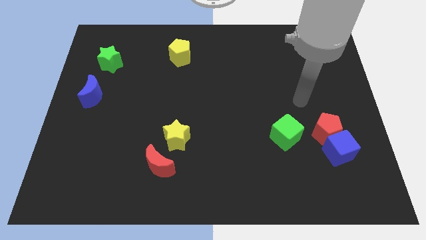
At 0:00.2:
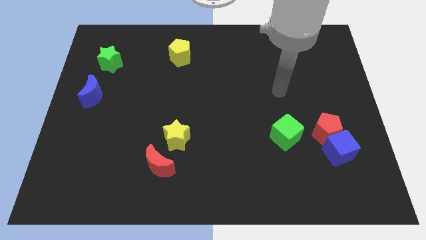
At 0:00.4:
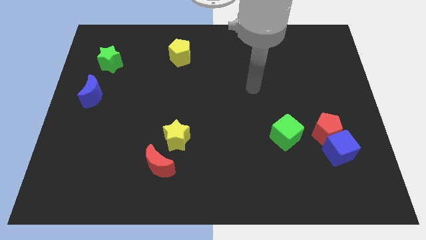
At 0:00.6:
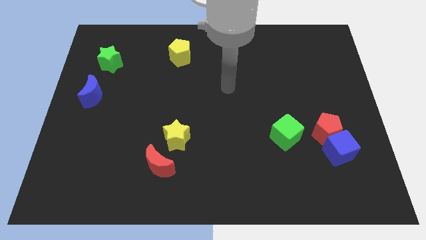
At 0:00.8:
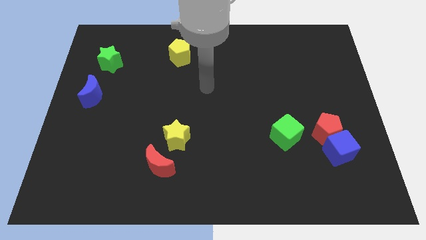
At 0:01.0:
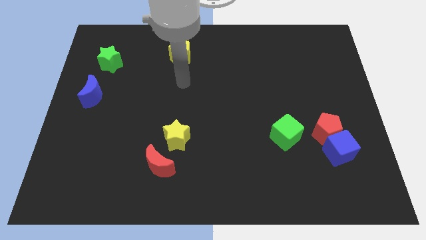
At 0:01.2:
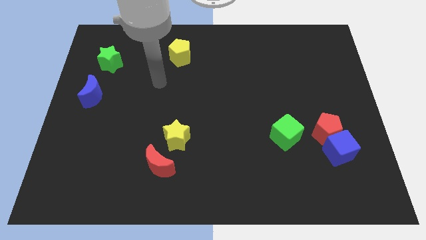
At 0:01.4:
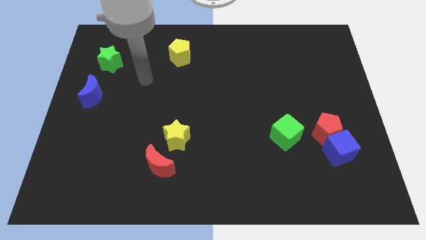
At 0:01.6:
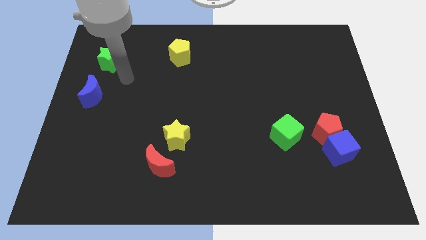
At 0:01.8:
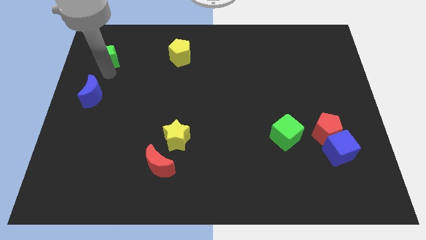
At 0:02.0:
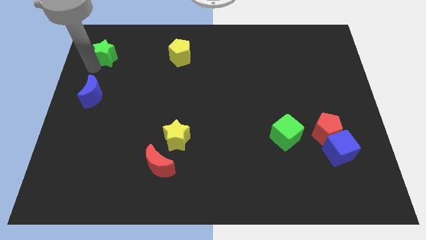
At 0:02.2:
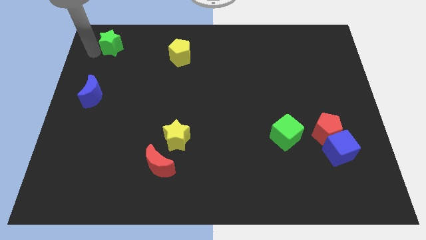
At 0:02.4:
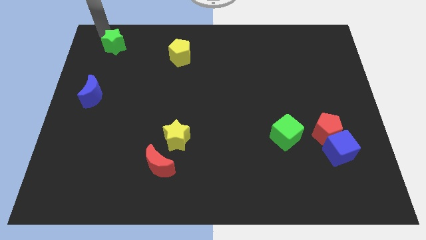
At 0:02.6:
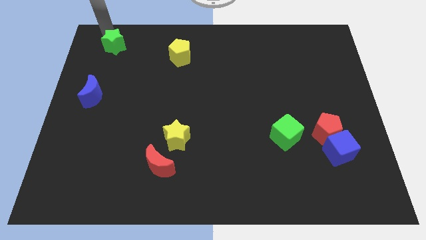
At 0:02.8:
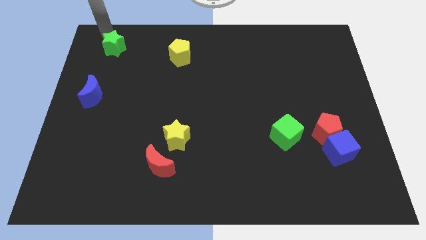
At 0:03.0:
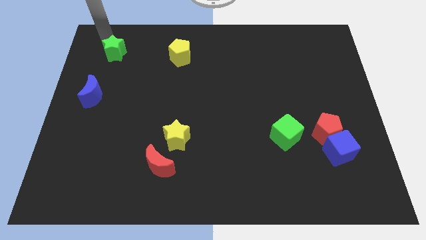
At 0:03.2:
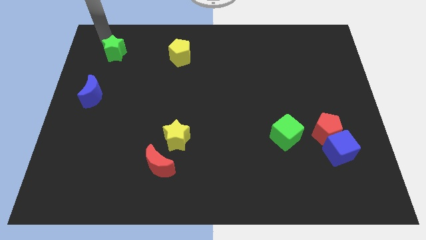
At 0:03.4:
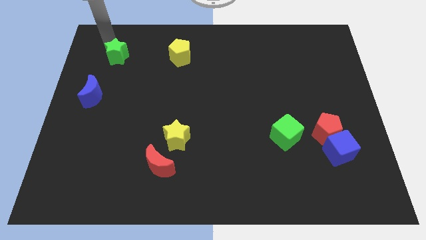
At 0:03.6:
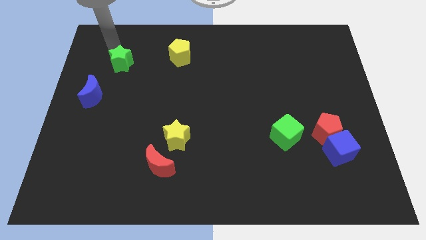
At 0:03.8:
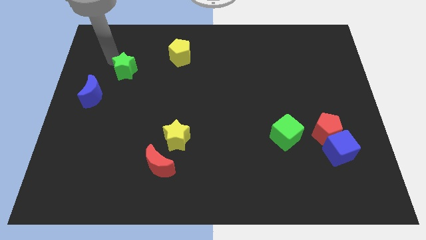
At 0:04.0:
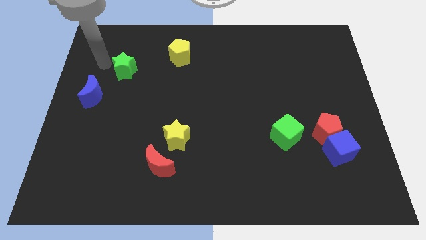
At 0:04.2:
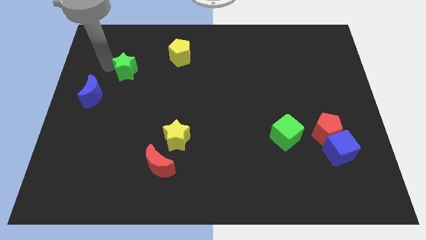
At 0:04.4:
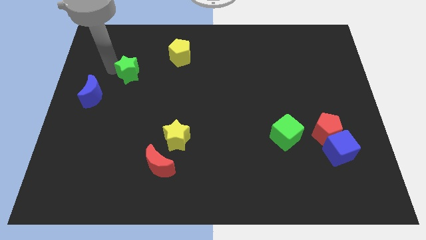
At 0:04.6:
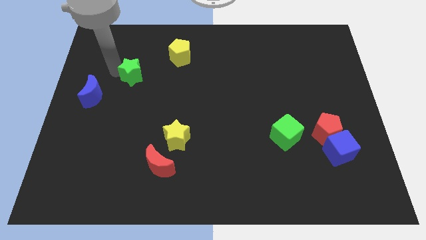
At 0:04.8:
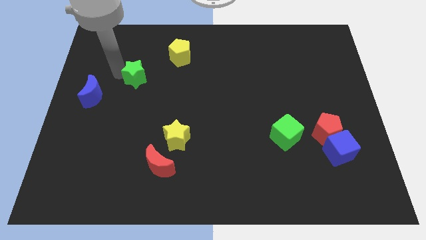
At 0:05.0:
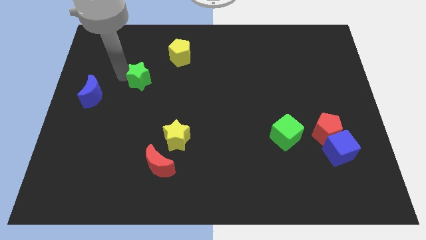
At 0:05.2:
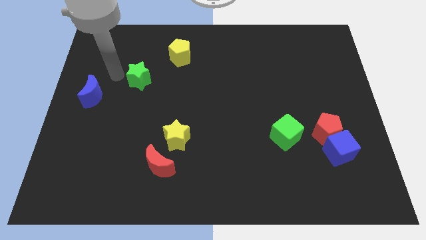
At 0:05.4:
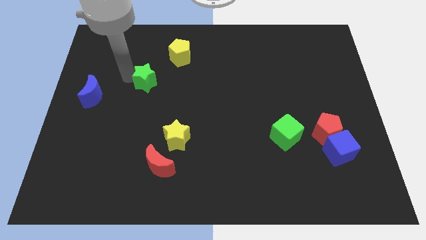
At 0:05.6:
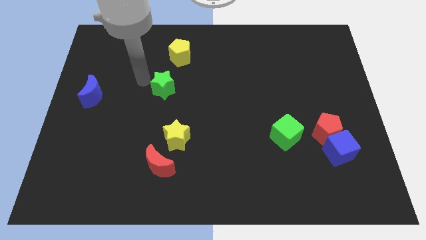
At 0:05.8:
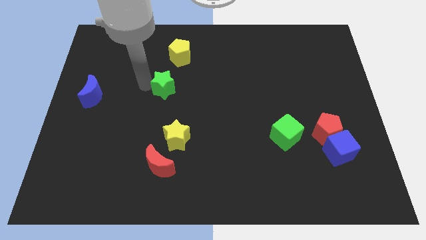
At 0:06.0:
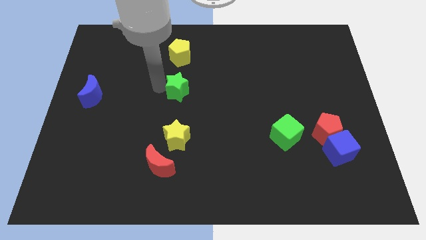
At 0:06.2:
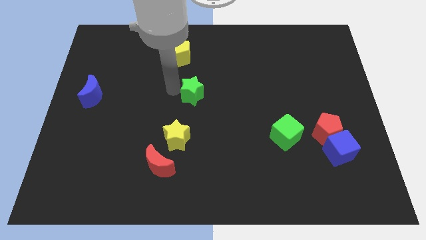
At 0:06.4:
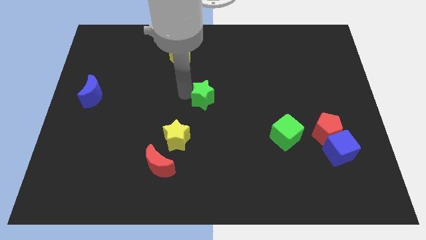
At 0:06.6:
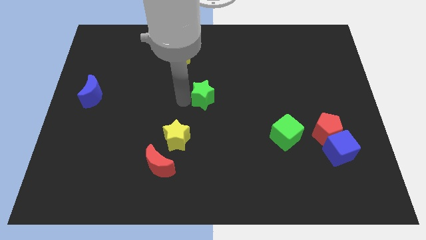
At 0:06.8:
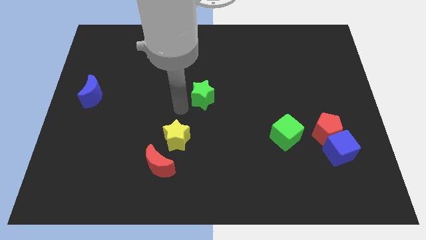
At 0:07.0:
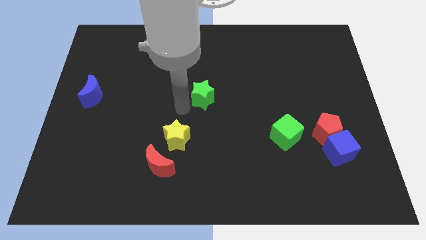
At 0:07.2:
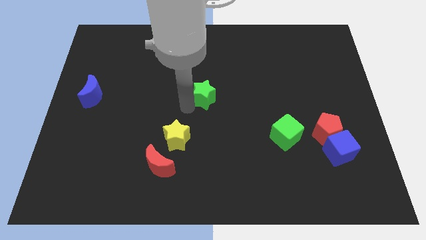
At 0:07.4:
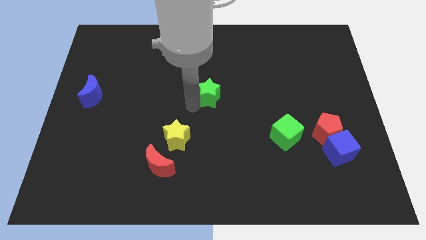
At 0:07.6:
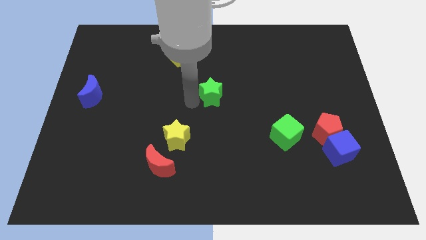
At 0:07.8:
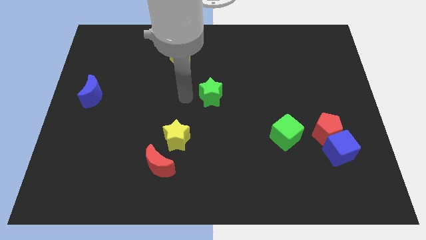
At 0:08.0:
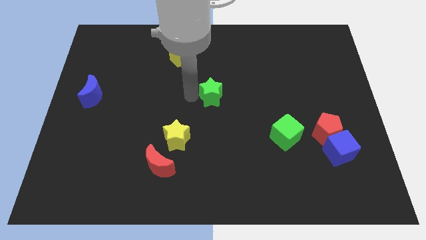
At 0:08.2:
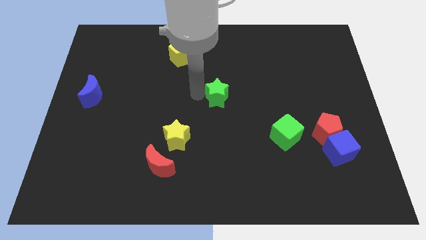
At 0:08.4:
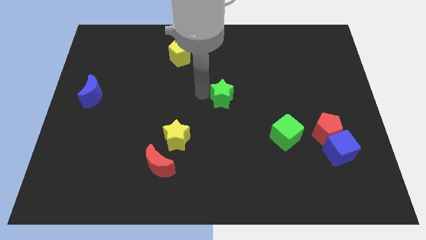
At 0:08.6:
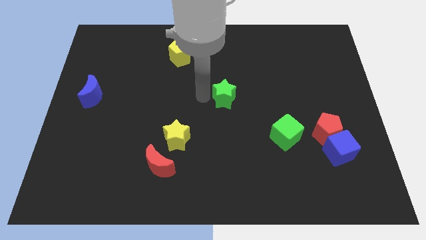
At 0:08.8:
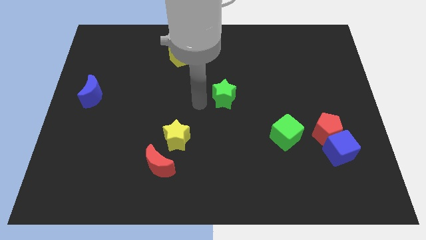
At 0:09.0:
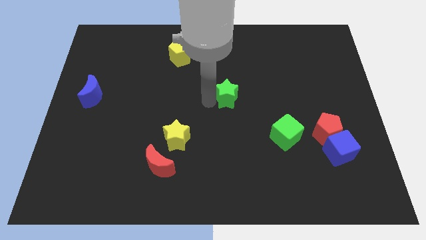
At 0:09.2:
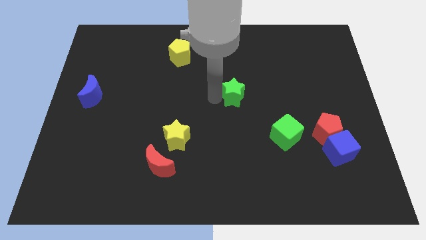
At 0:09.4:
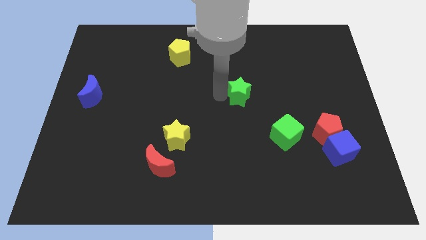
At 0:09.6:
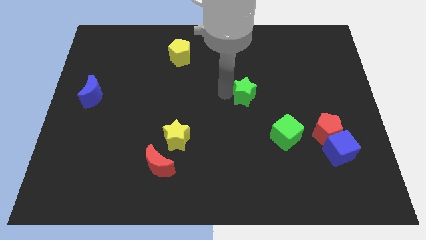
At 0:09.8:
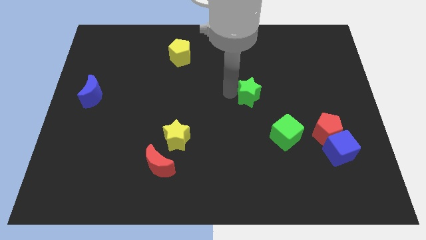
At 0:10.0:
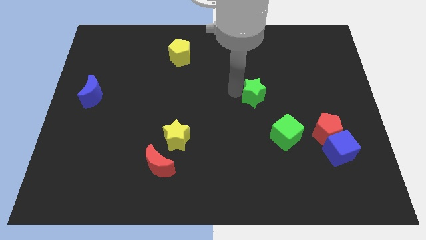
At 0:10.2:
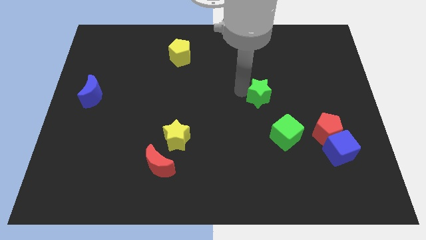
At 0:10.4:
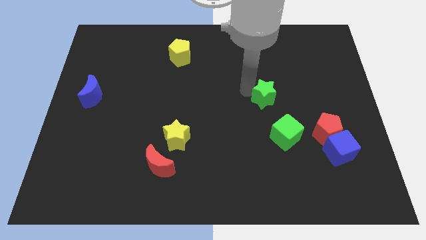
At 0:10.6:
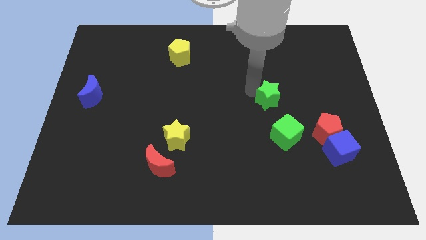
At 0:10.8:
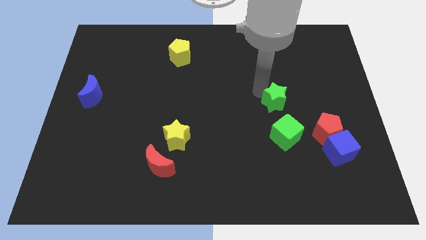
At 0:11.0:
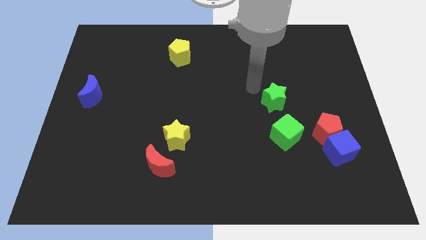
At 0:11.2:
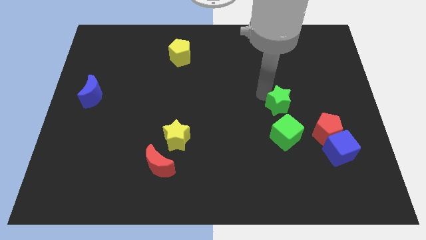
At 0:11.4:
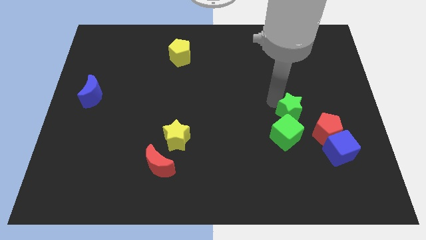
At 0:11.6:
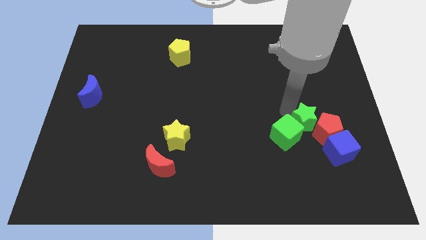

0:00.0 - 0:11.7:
move the green star close to the red pentagon

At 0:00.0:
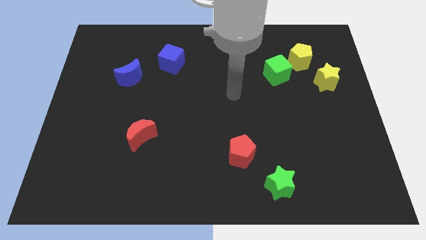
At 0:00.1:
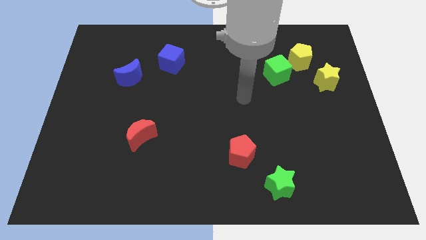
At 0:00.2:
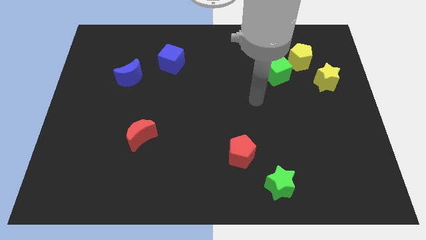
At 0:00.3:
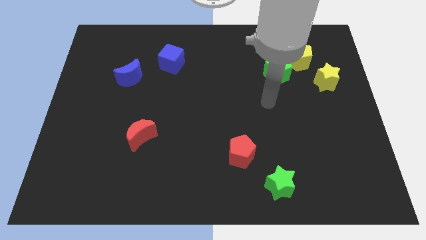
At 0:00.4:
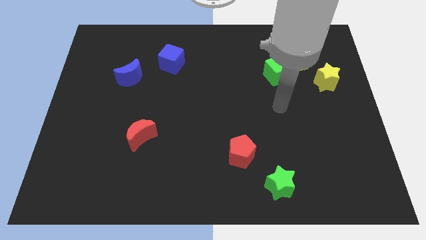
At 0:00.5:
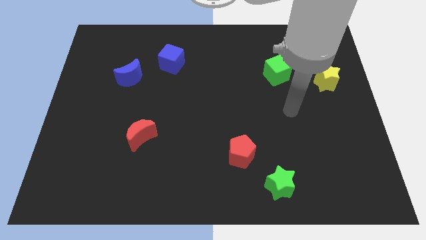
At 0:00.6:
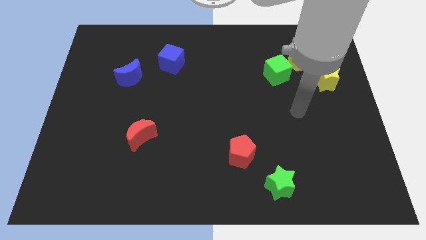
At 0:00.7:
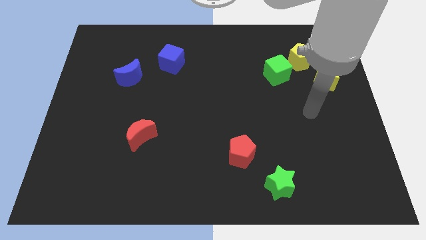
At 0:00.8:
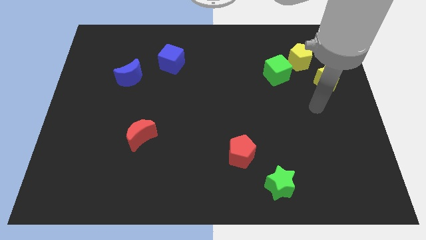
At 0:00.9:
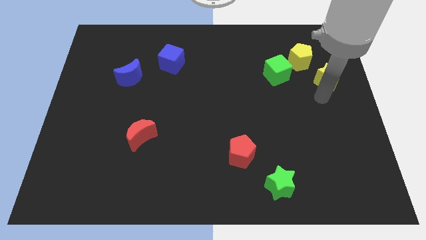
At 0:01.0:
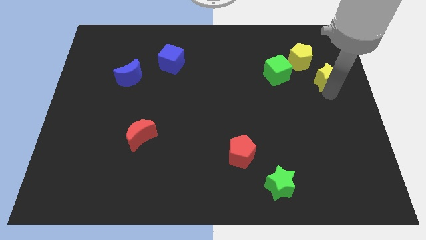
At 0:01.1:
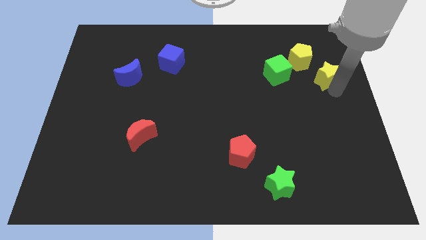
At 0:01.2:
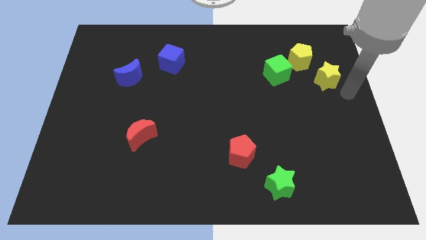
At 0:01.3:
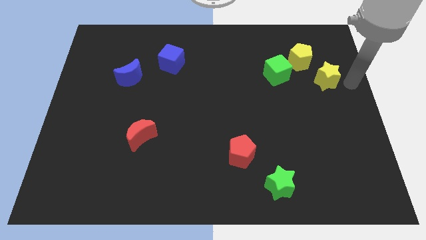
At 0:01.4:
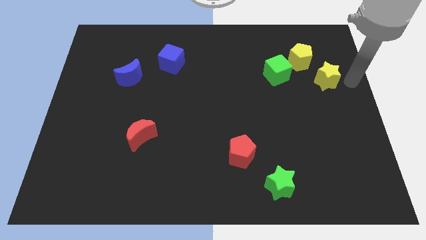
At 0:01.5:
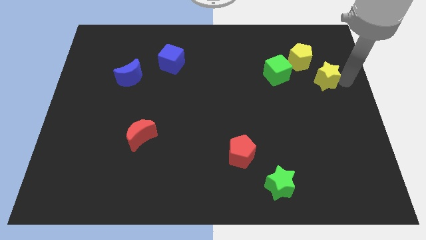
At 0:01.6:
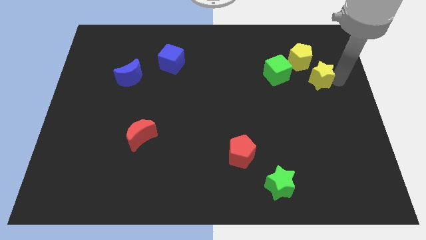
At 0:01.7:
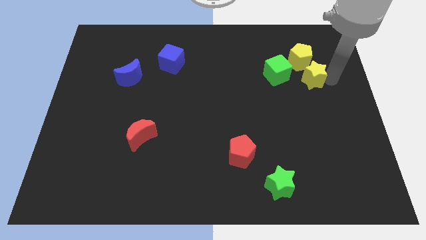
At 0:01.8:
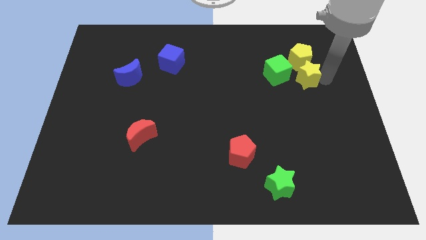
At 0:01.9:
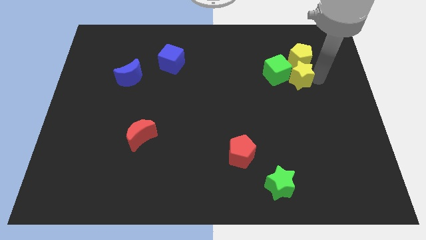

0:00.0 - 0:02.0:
put the yellow star towards the green cube
